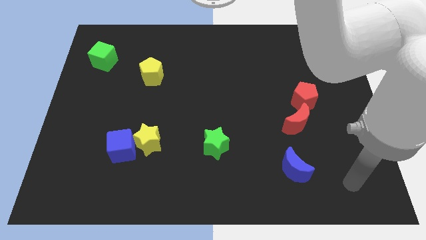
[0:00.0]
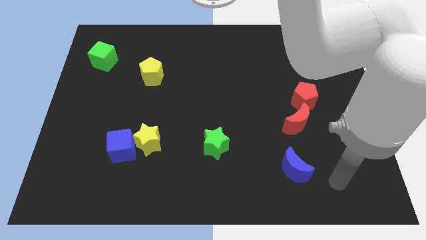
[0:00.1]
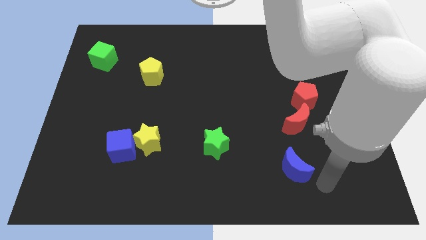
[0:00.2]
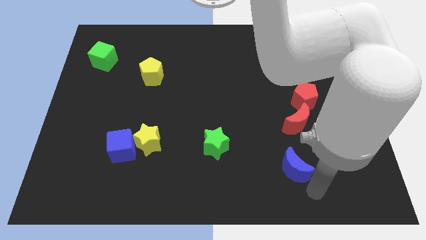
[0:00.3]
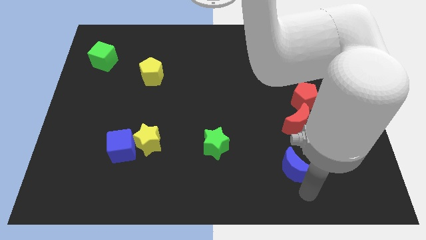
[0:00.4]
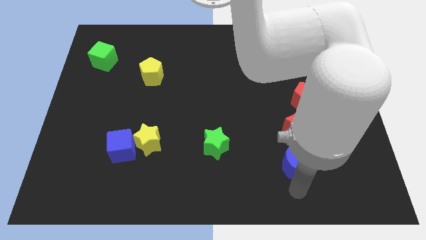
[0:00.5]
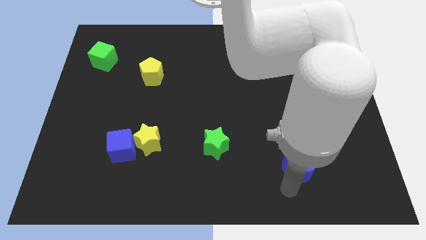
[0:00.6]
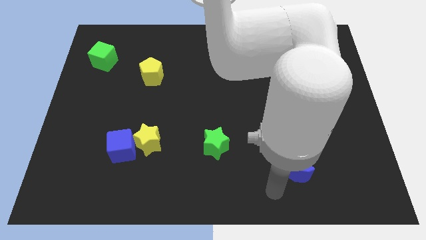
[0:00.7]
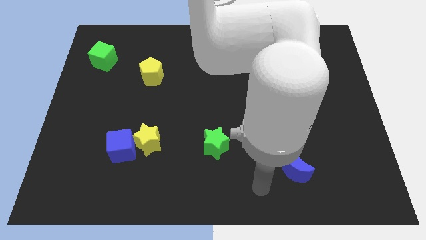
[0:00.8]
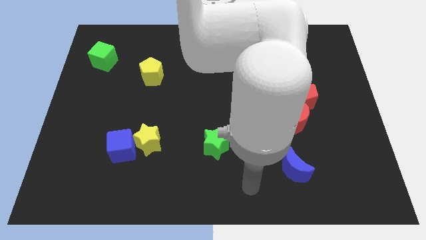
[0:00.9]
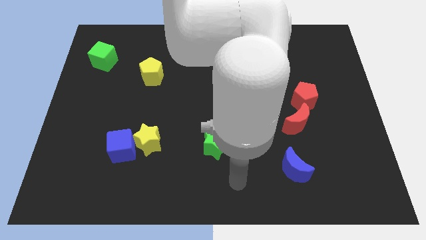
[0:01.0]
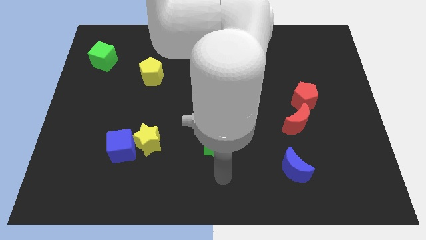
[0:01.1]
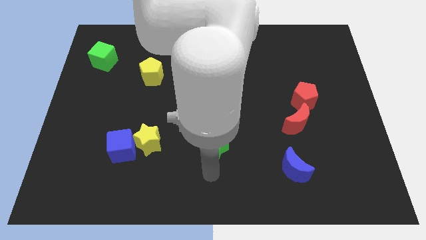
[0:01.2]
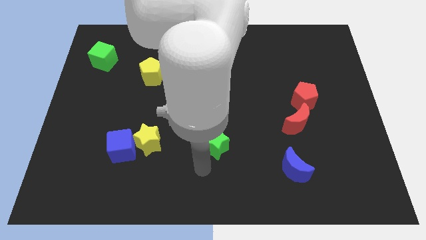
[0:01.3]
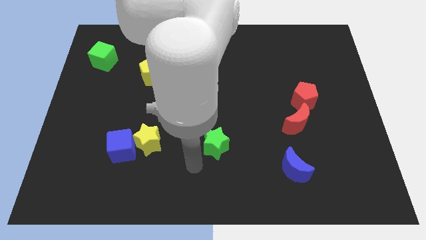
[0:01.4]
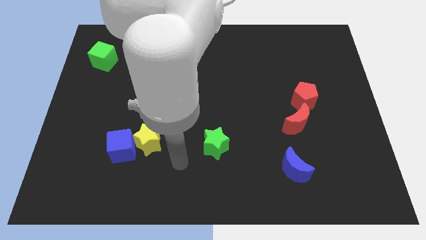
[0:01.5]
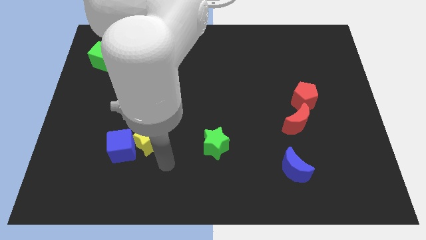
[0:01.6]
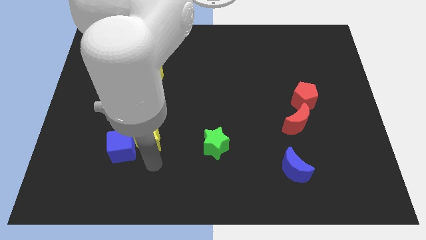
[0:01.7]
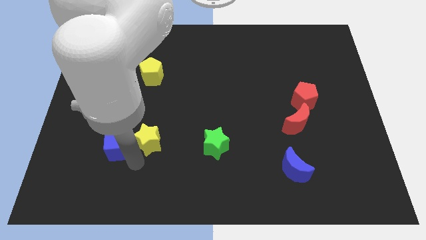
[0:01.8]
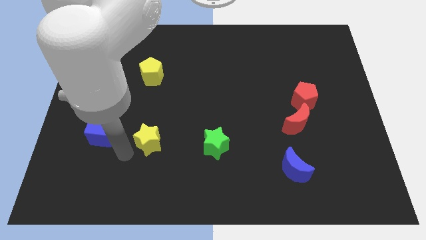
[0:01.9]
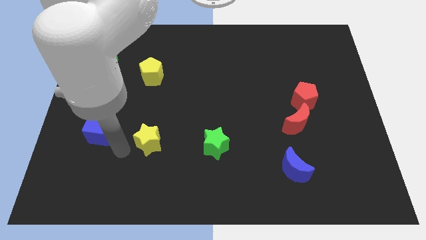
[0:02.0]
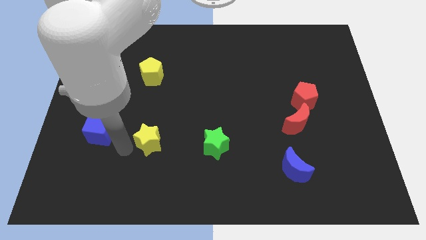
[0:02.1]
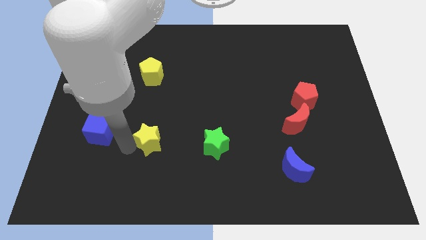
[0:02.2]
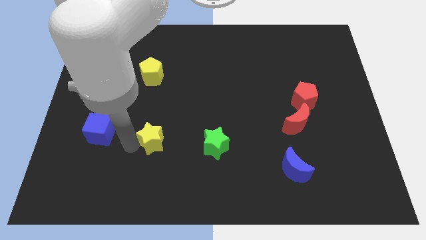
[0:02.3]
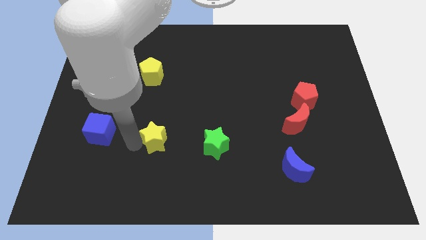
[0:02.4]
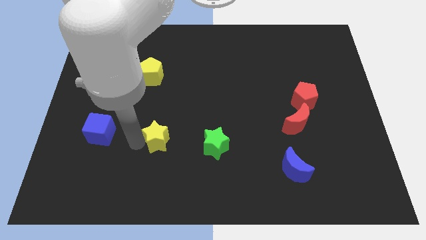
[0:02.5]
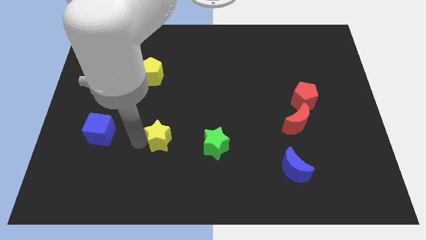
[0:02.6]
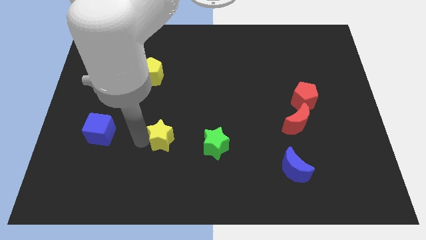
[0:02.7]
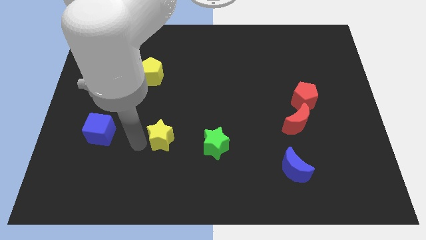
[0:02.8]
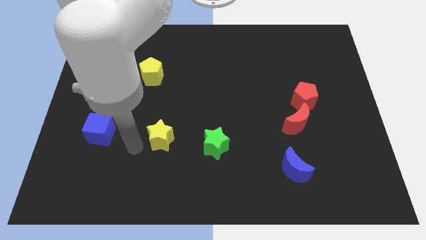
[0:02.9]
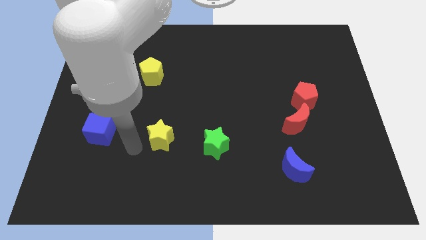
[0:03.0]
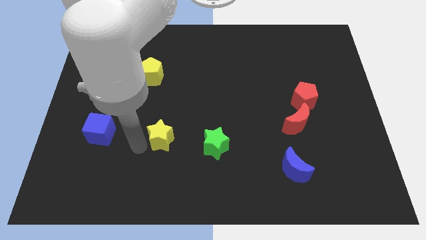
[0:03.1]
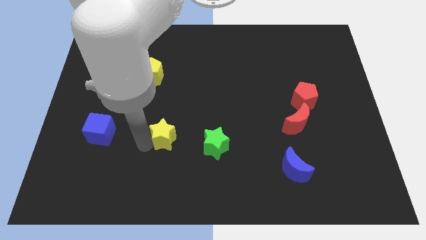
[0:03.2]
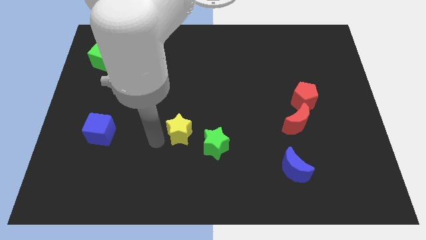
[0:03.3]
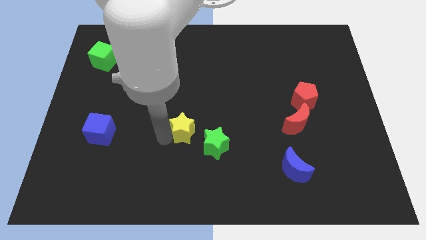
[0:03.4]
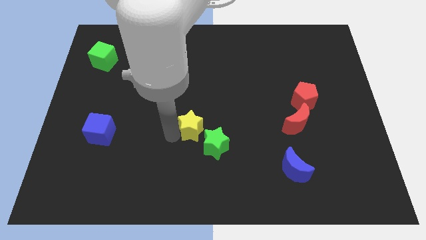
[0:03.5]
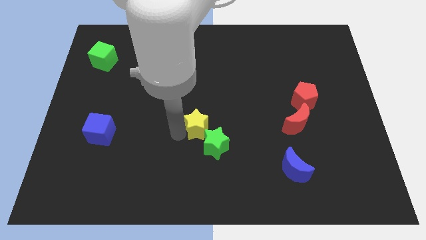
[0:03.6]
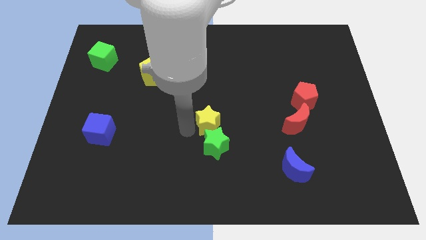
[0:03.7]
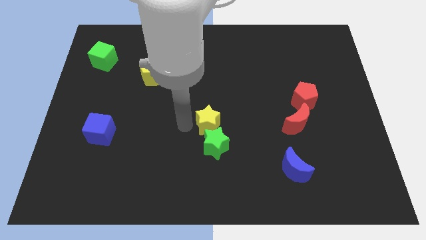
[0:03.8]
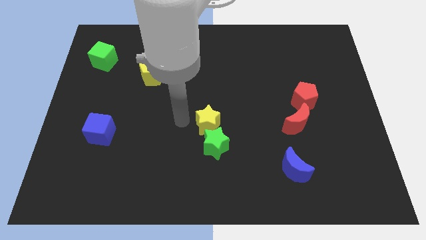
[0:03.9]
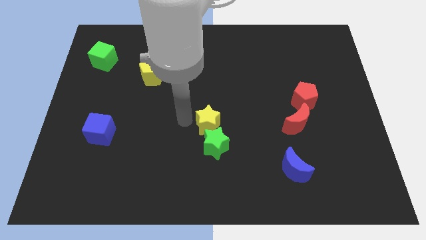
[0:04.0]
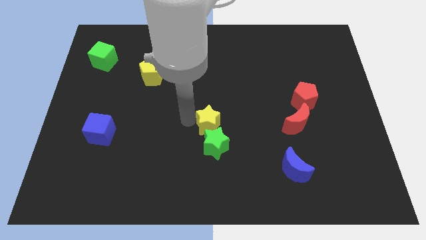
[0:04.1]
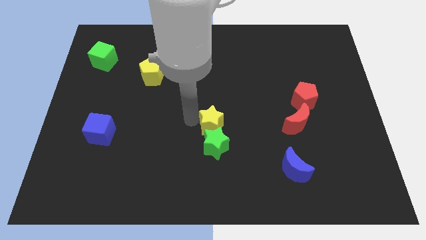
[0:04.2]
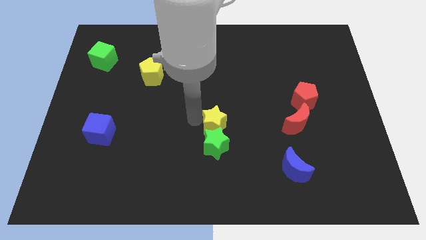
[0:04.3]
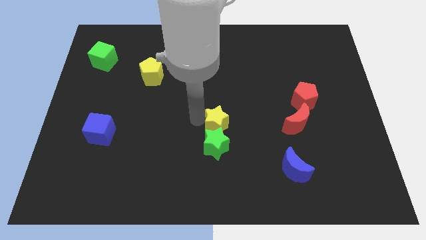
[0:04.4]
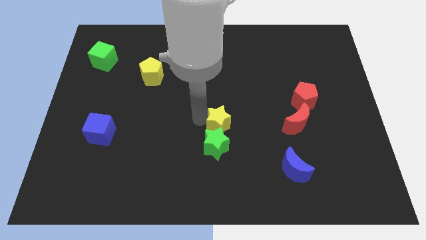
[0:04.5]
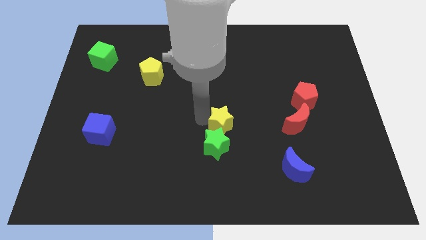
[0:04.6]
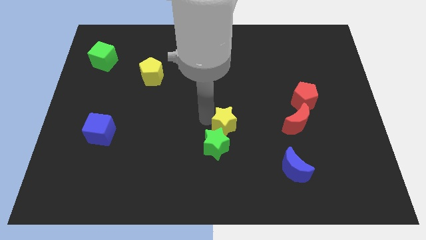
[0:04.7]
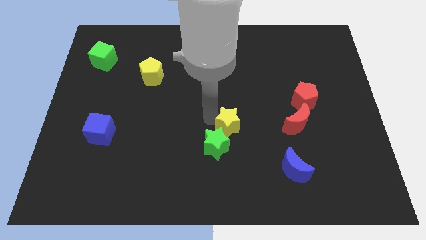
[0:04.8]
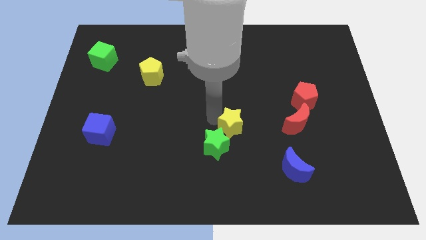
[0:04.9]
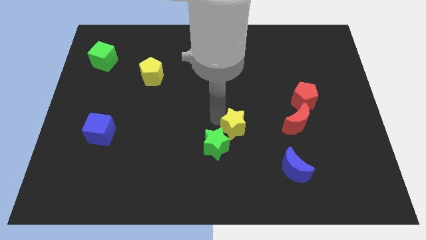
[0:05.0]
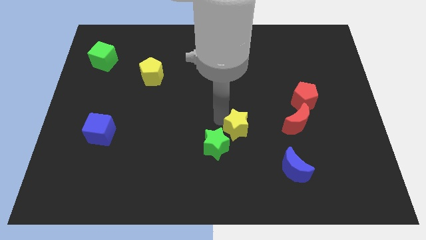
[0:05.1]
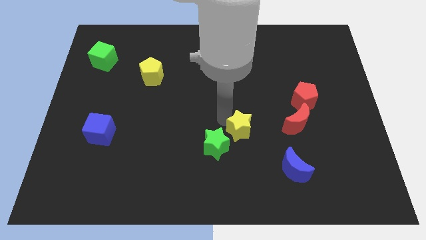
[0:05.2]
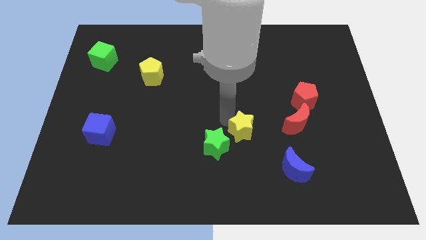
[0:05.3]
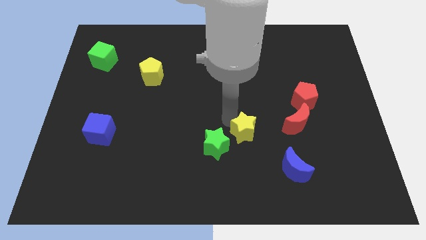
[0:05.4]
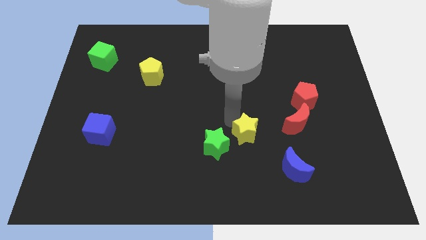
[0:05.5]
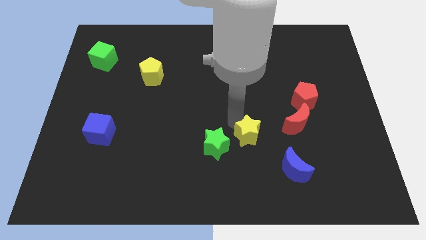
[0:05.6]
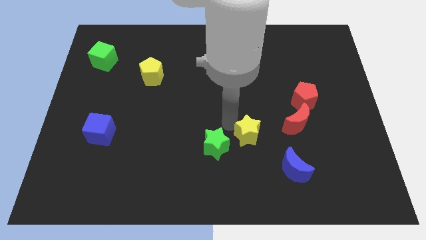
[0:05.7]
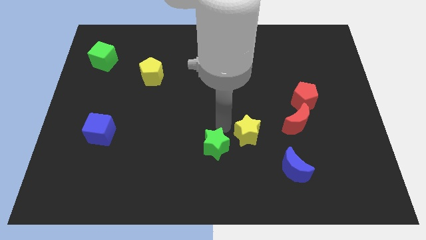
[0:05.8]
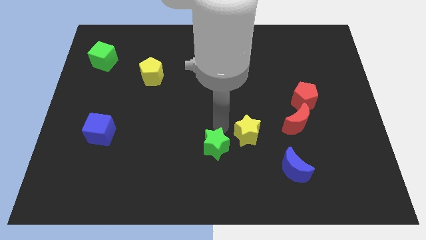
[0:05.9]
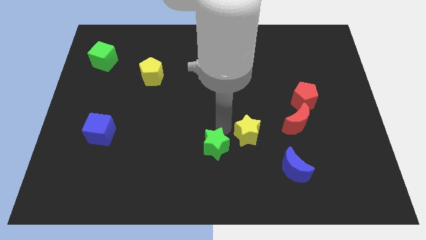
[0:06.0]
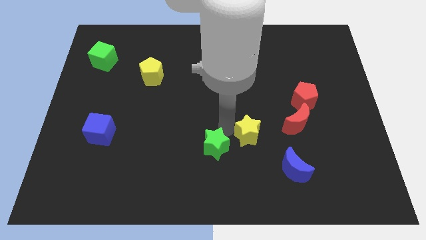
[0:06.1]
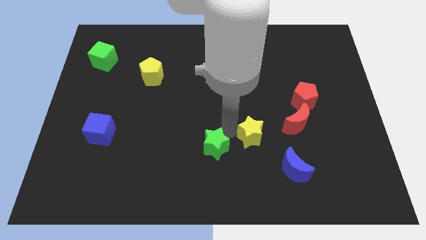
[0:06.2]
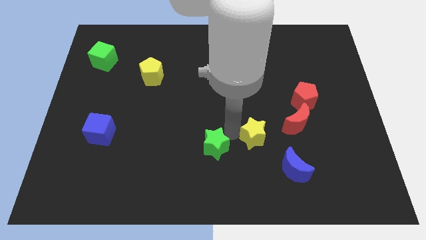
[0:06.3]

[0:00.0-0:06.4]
slide the yellow star to the bottom left of the red moon

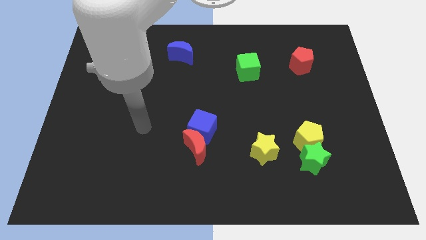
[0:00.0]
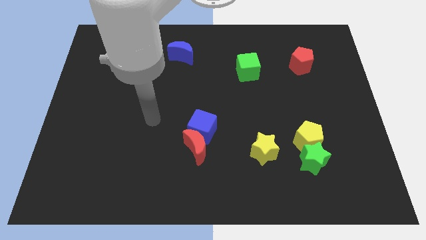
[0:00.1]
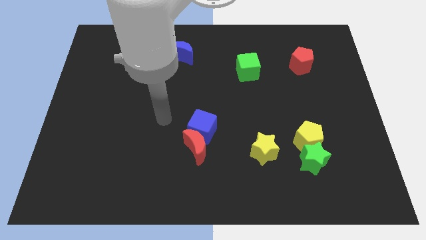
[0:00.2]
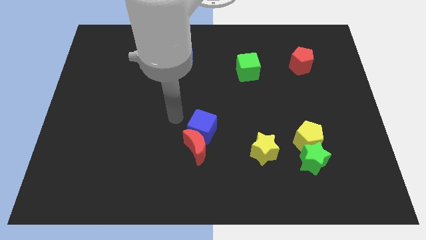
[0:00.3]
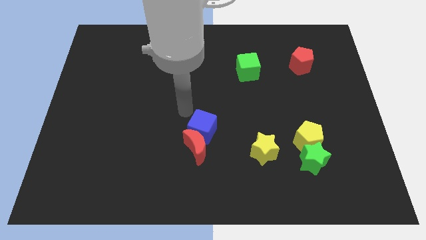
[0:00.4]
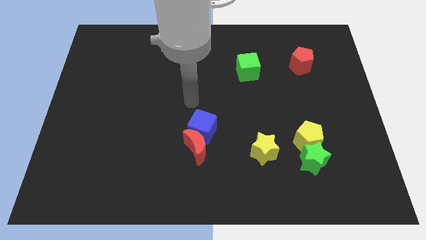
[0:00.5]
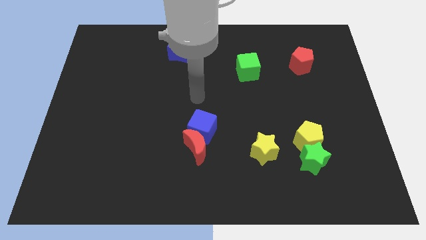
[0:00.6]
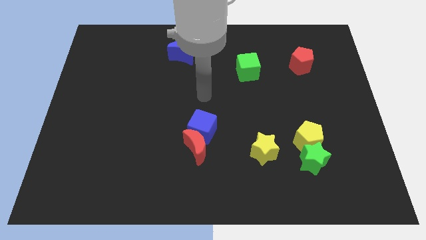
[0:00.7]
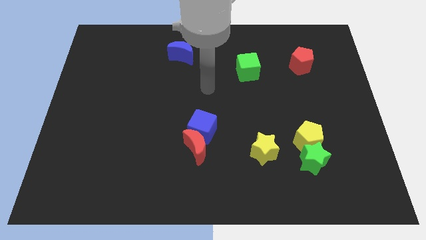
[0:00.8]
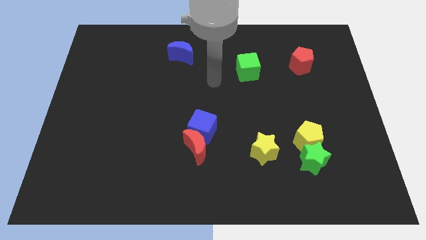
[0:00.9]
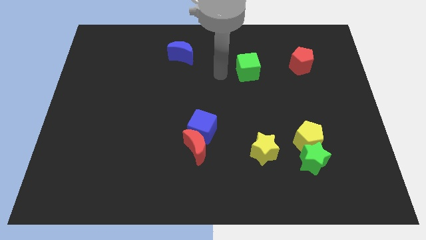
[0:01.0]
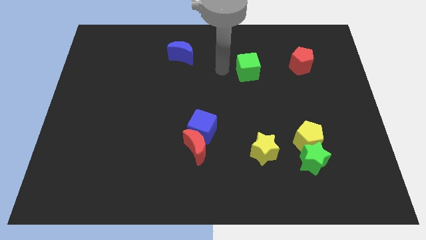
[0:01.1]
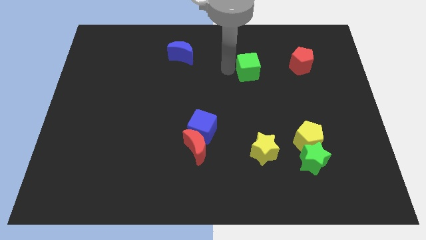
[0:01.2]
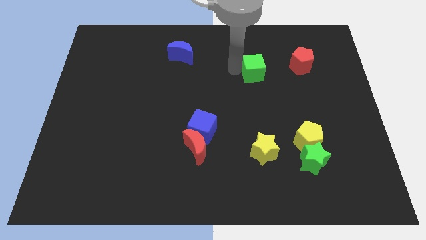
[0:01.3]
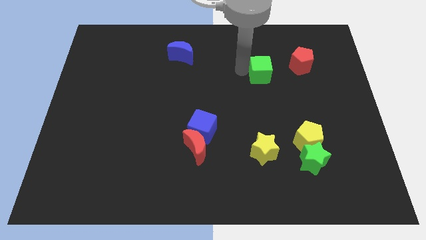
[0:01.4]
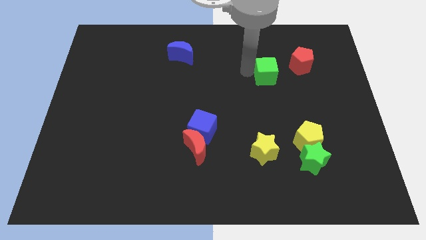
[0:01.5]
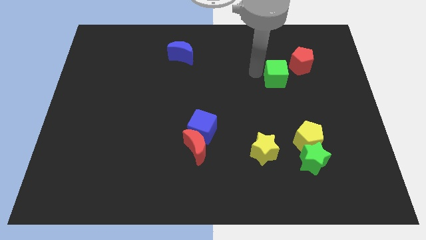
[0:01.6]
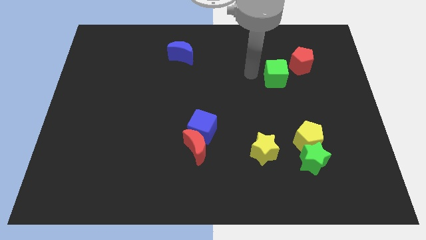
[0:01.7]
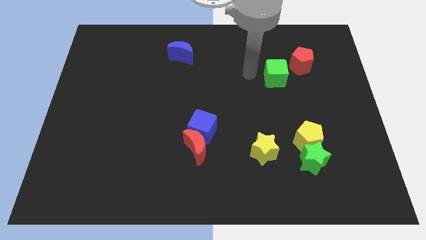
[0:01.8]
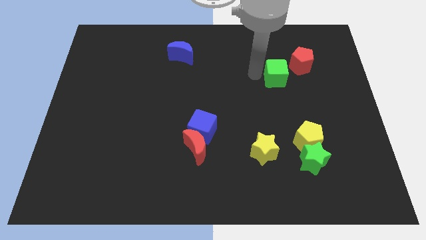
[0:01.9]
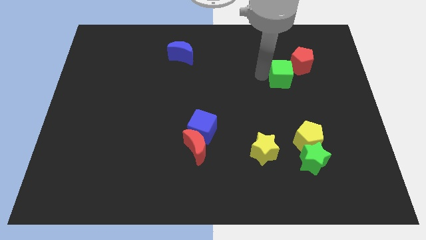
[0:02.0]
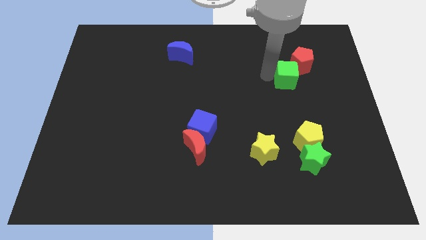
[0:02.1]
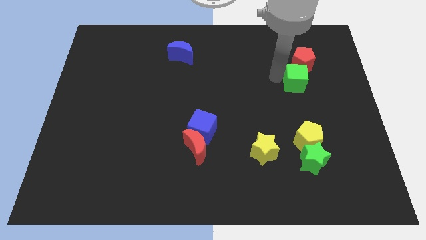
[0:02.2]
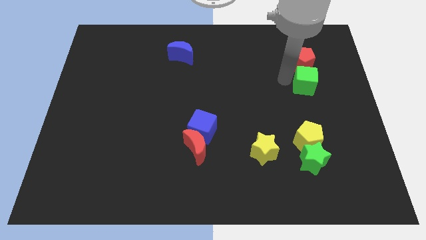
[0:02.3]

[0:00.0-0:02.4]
put the green cube diagonally down and to the right of the red pentagon
